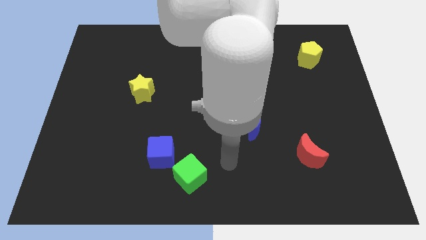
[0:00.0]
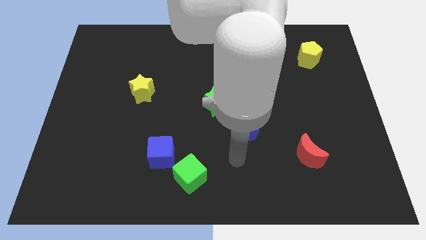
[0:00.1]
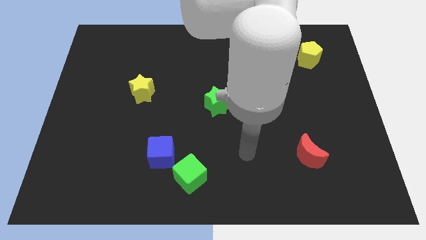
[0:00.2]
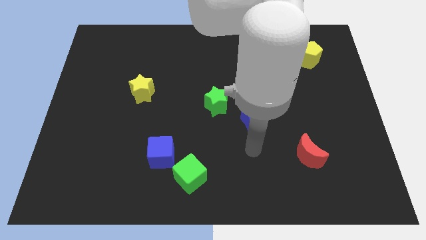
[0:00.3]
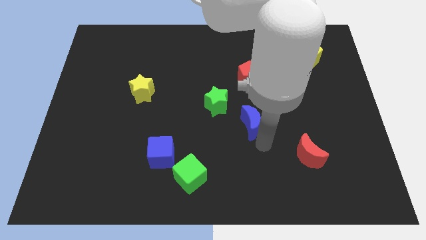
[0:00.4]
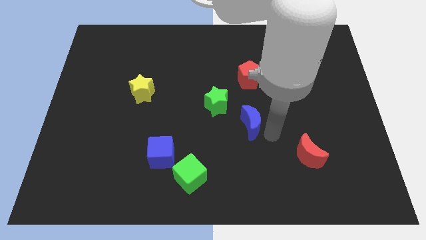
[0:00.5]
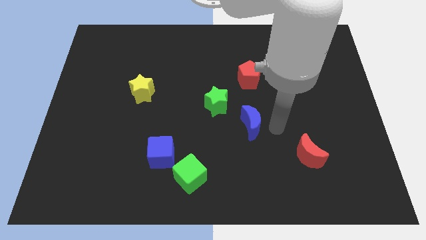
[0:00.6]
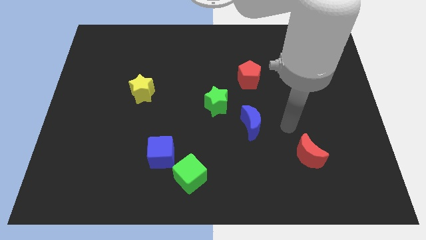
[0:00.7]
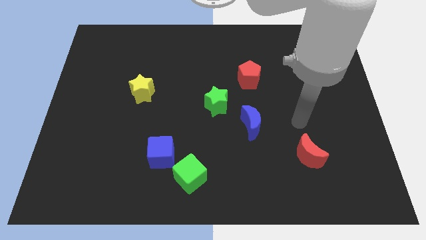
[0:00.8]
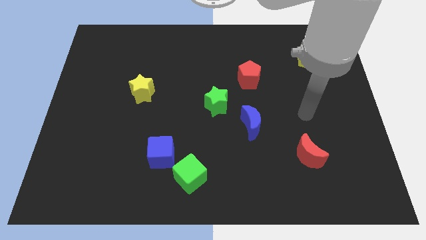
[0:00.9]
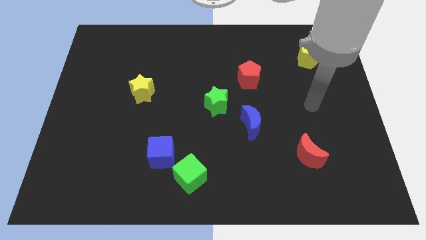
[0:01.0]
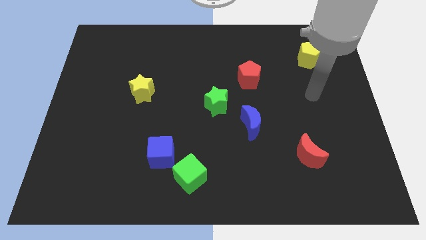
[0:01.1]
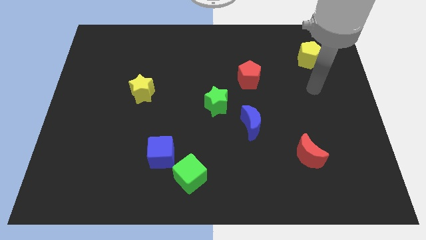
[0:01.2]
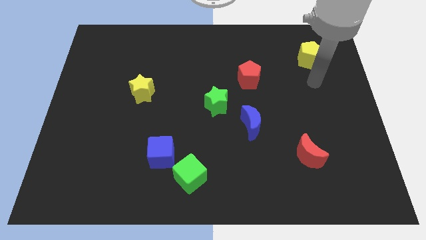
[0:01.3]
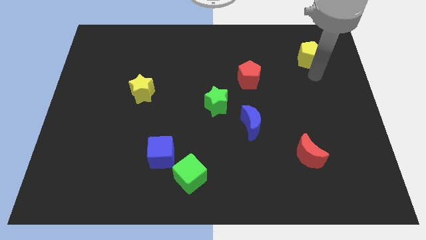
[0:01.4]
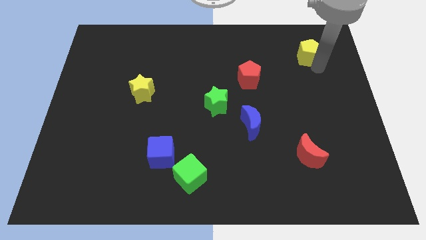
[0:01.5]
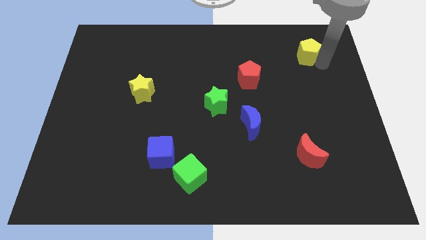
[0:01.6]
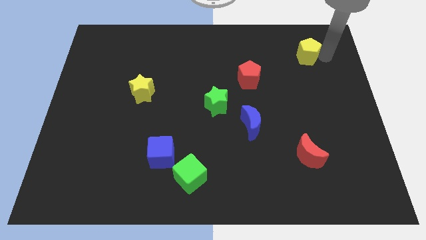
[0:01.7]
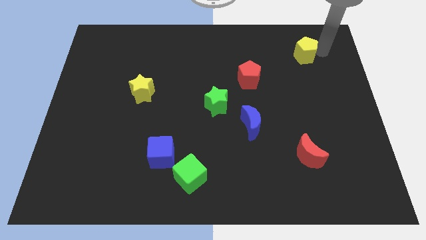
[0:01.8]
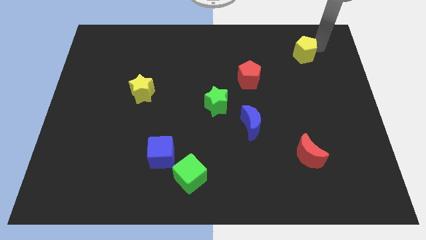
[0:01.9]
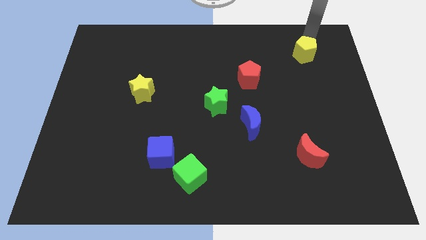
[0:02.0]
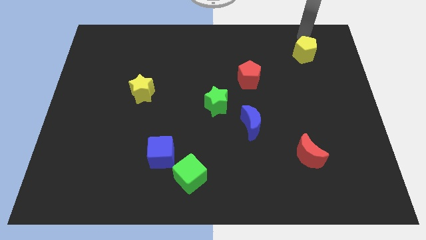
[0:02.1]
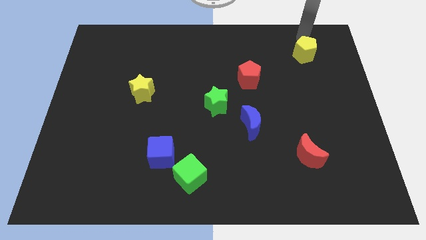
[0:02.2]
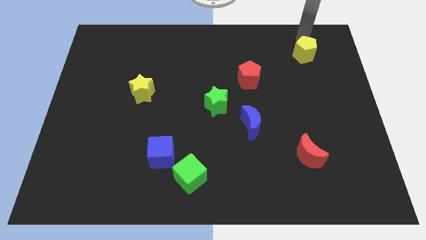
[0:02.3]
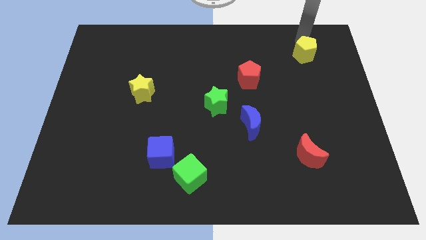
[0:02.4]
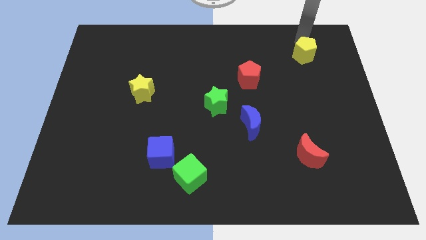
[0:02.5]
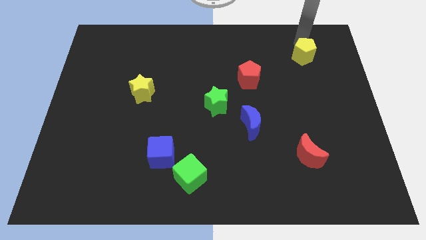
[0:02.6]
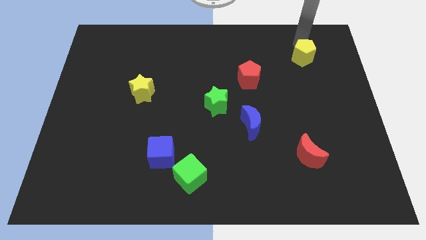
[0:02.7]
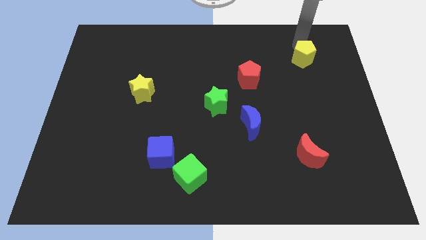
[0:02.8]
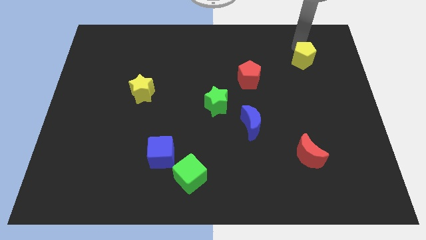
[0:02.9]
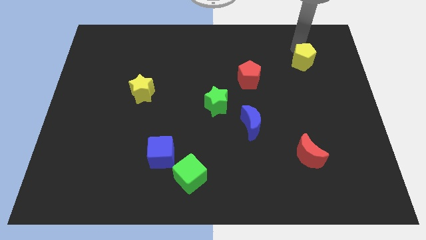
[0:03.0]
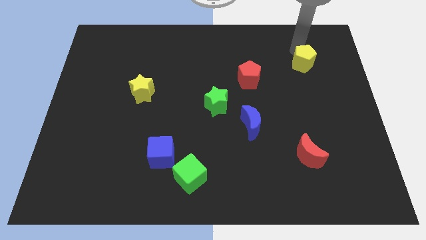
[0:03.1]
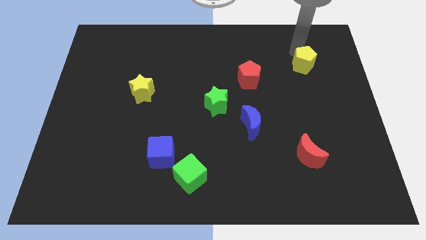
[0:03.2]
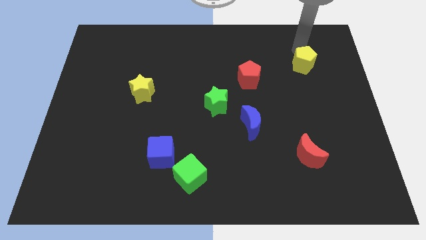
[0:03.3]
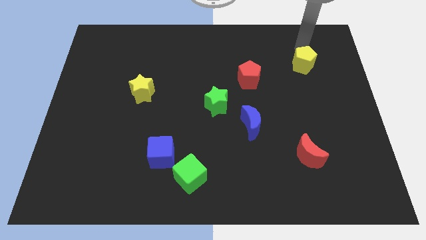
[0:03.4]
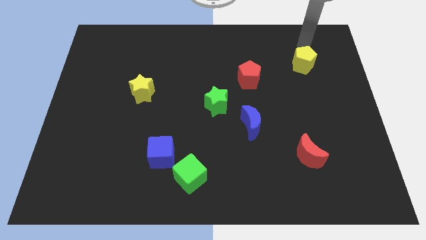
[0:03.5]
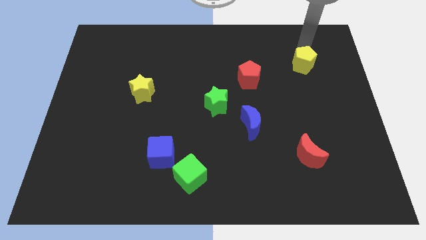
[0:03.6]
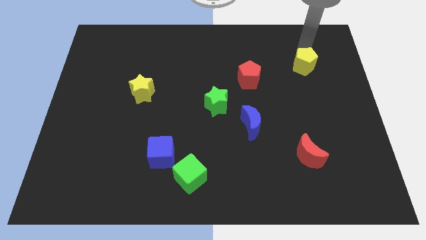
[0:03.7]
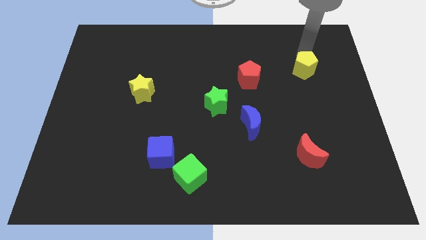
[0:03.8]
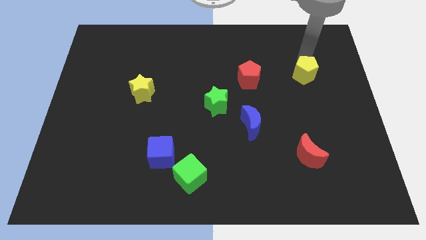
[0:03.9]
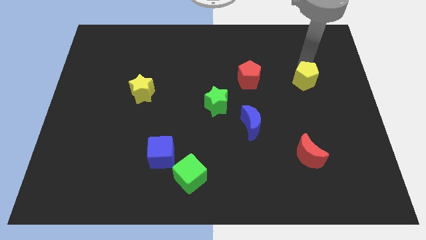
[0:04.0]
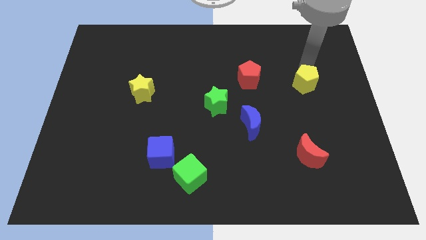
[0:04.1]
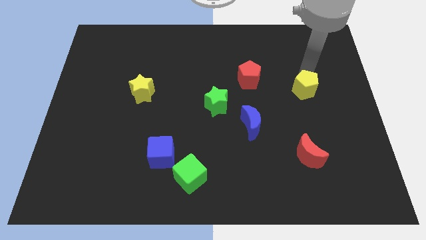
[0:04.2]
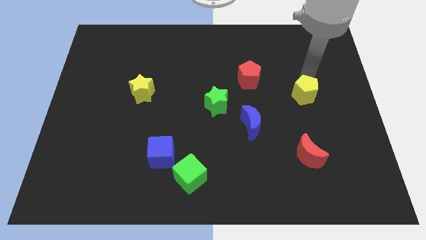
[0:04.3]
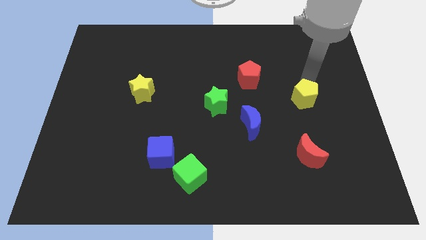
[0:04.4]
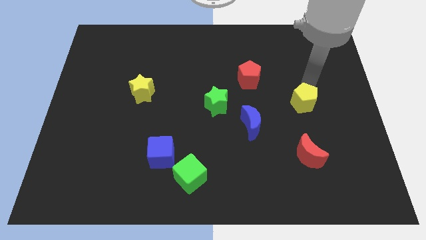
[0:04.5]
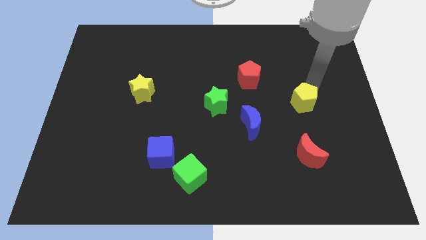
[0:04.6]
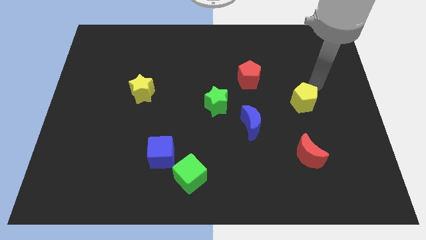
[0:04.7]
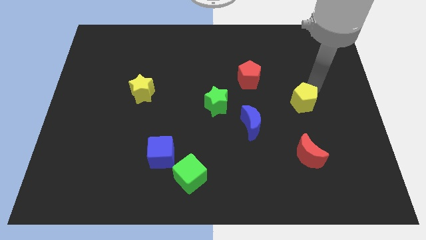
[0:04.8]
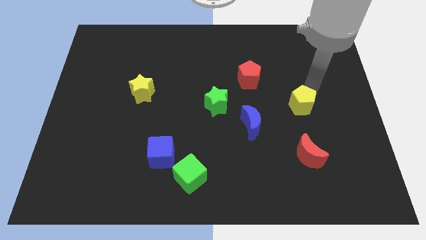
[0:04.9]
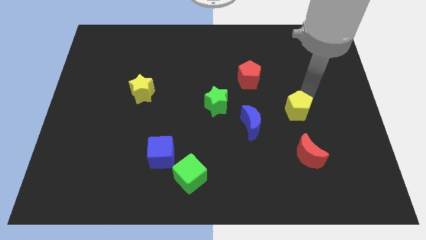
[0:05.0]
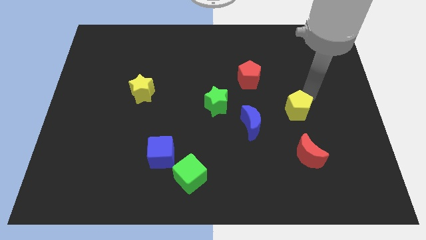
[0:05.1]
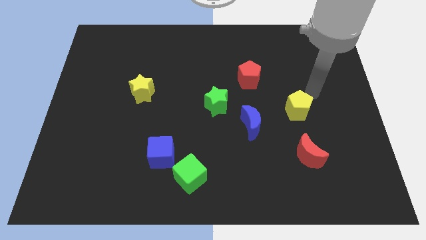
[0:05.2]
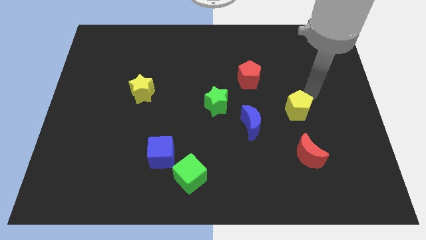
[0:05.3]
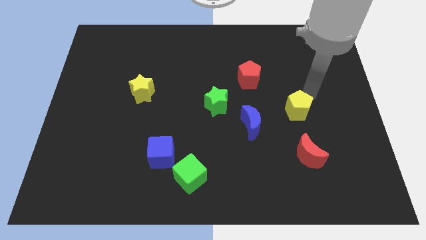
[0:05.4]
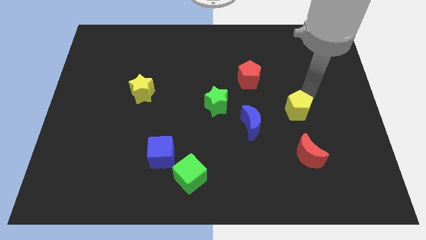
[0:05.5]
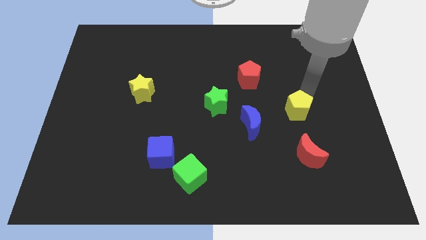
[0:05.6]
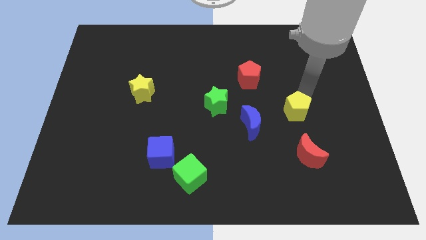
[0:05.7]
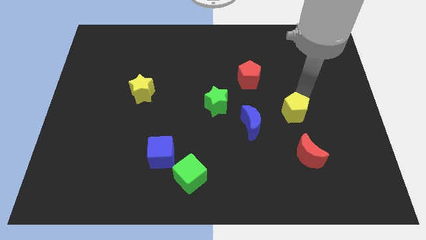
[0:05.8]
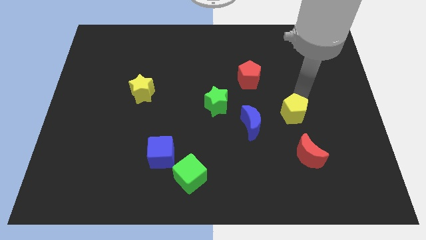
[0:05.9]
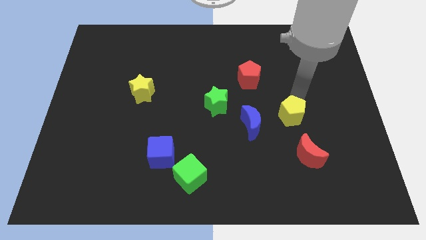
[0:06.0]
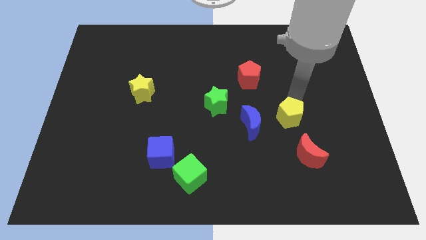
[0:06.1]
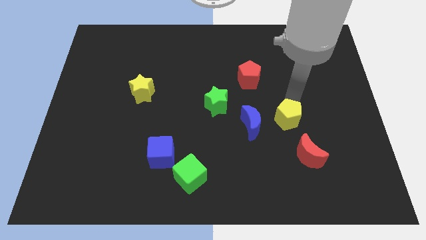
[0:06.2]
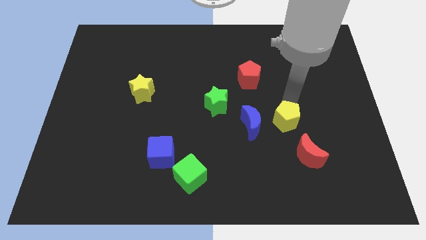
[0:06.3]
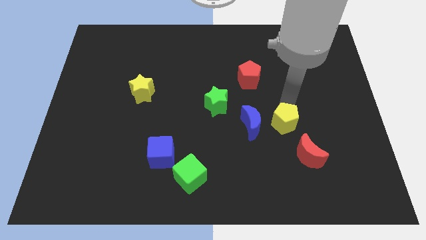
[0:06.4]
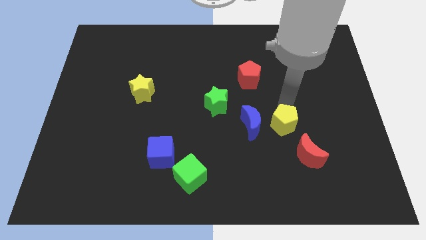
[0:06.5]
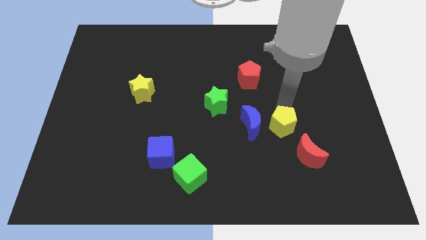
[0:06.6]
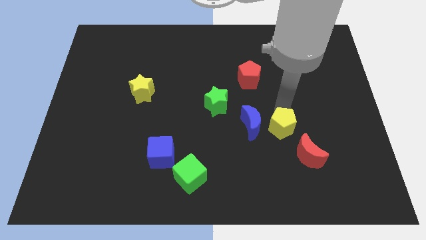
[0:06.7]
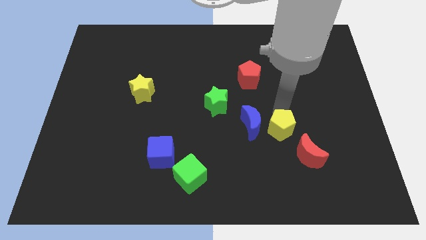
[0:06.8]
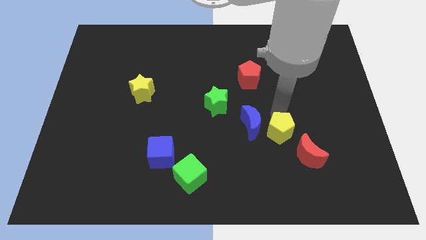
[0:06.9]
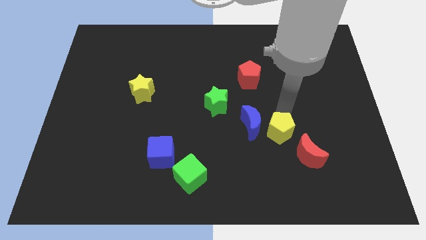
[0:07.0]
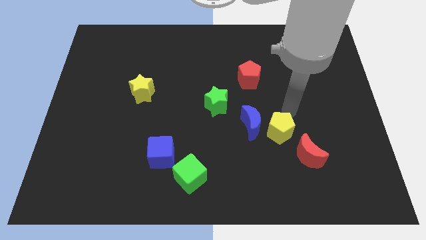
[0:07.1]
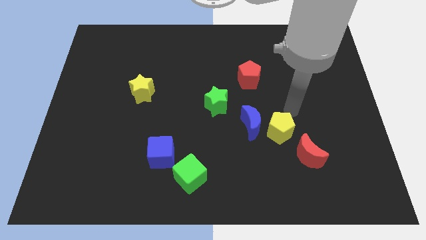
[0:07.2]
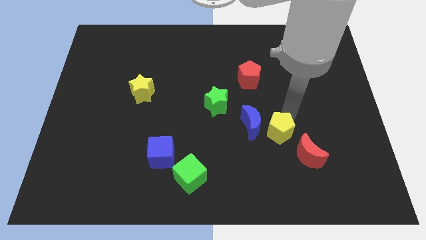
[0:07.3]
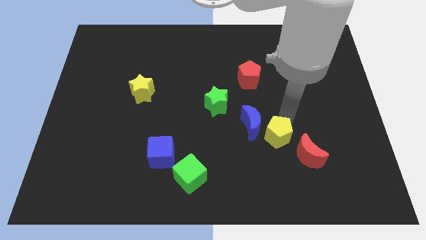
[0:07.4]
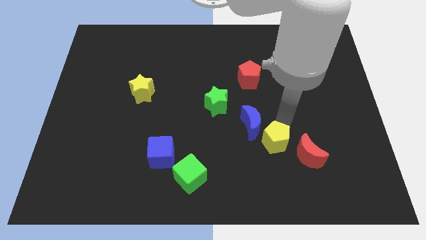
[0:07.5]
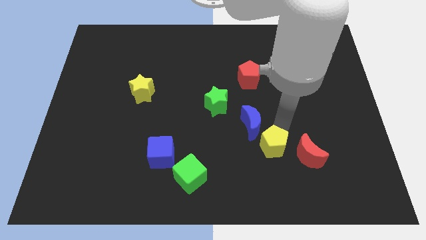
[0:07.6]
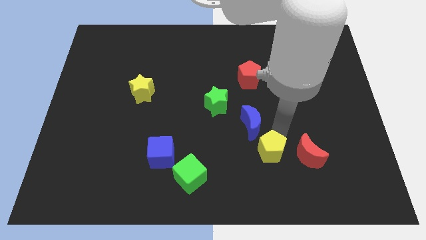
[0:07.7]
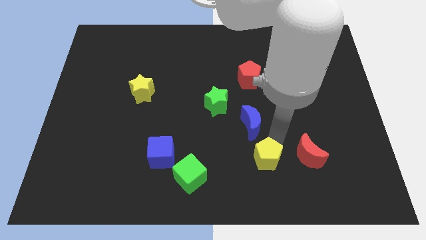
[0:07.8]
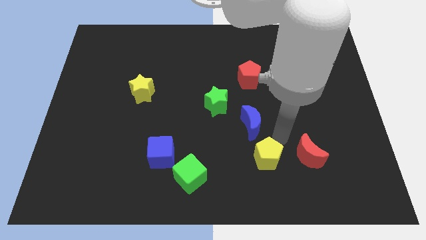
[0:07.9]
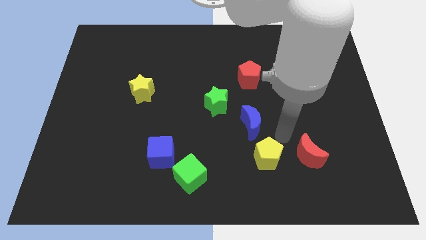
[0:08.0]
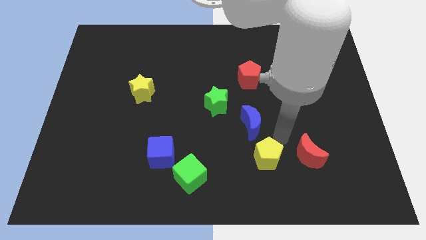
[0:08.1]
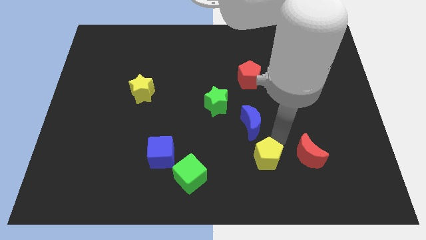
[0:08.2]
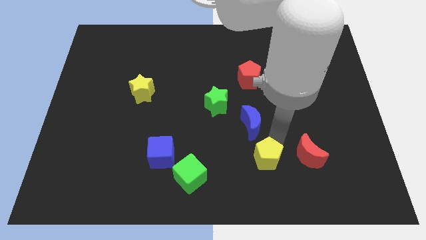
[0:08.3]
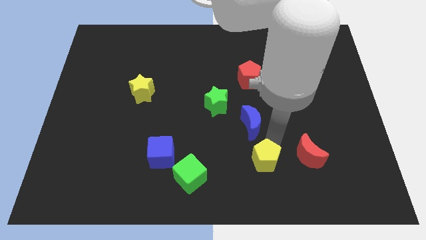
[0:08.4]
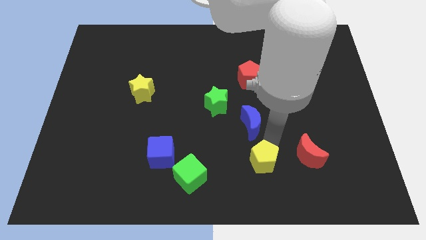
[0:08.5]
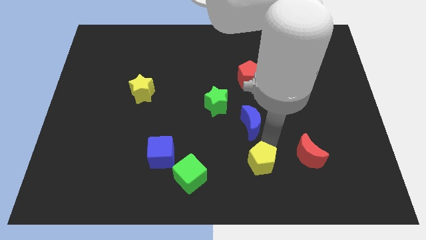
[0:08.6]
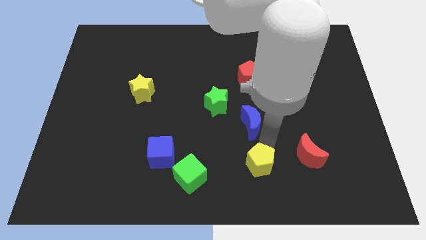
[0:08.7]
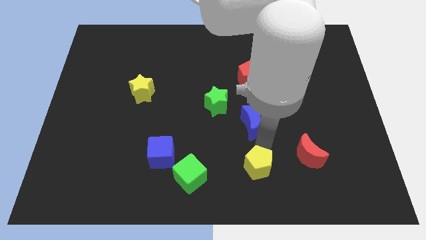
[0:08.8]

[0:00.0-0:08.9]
slide the yellow pentagon to the bottom
